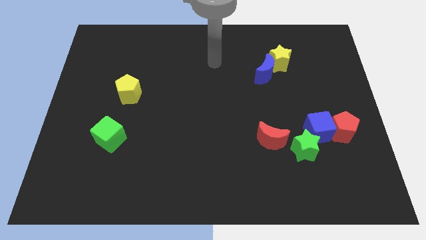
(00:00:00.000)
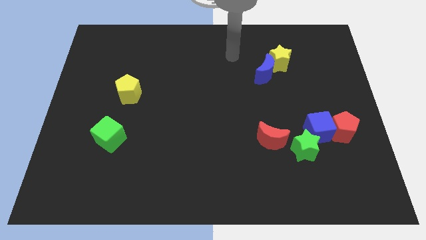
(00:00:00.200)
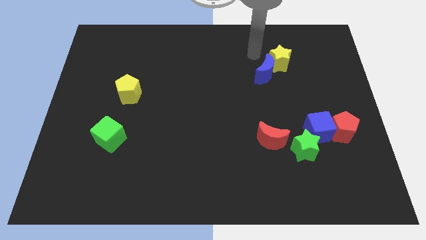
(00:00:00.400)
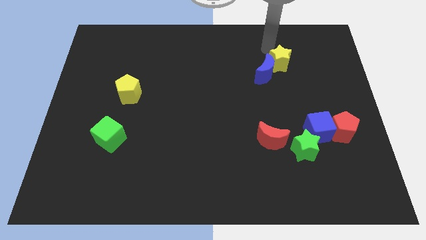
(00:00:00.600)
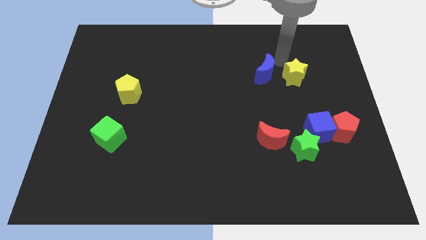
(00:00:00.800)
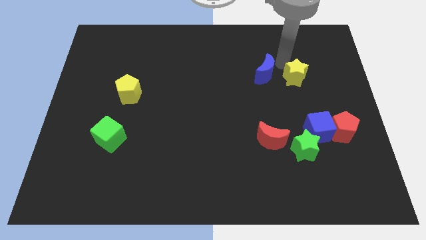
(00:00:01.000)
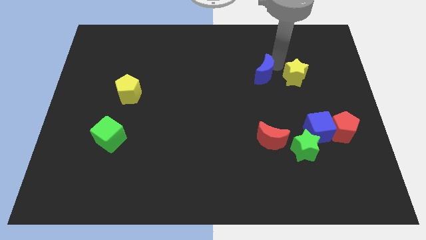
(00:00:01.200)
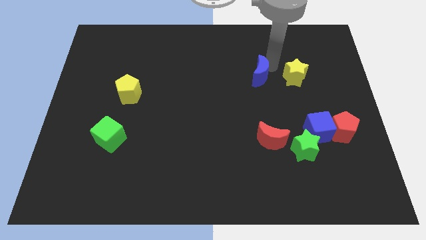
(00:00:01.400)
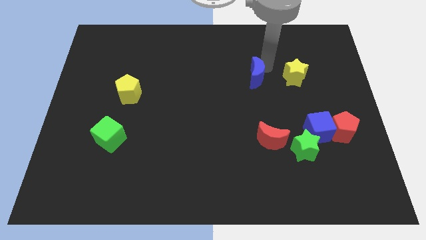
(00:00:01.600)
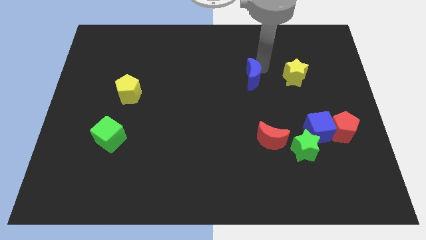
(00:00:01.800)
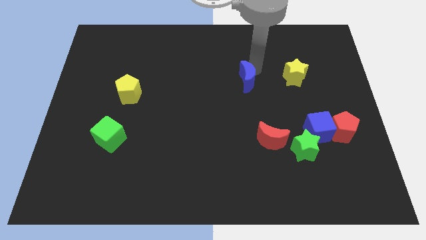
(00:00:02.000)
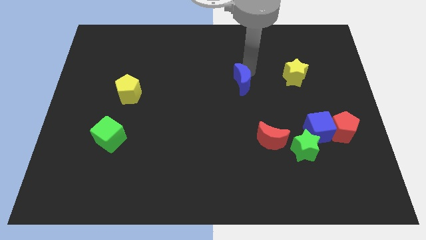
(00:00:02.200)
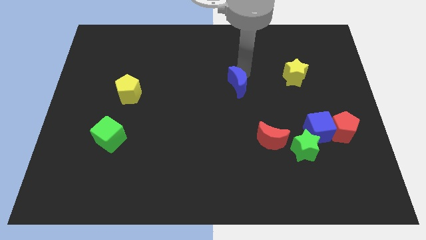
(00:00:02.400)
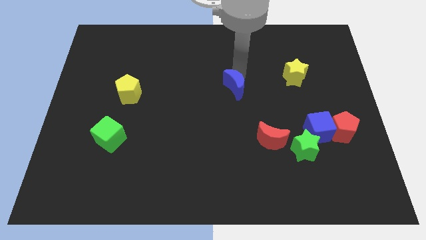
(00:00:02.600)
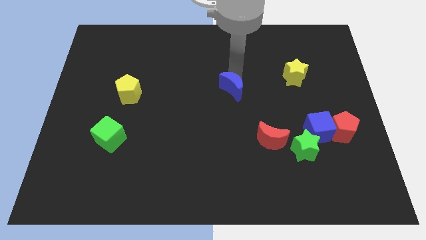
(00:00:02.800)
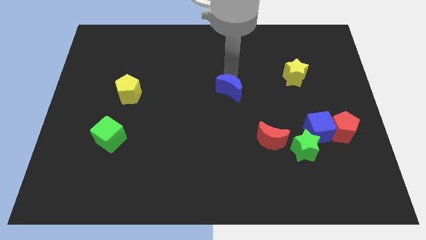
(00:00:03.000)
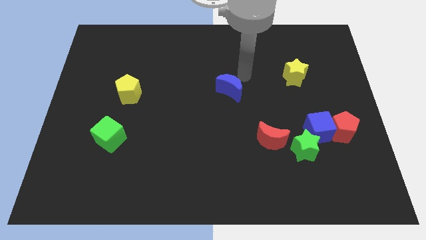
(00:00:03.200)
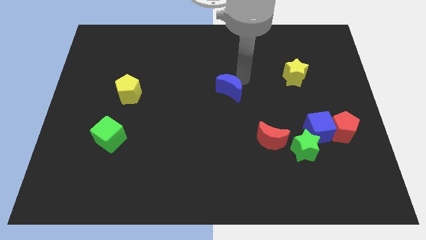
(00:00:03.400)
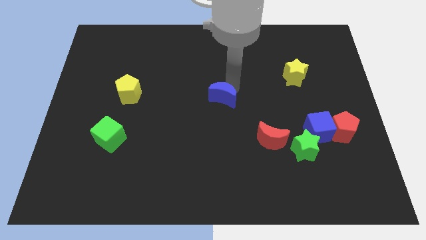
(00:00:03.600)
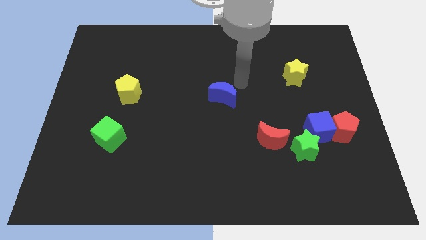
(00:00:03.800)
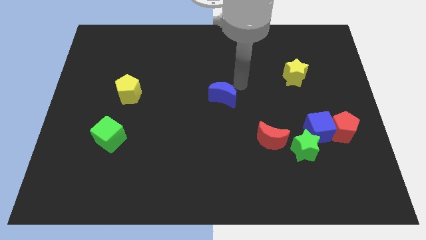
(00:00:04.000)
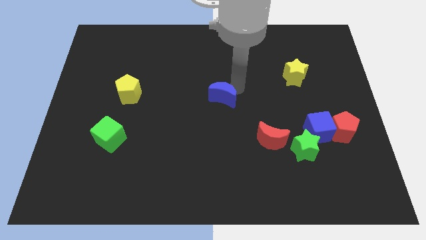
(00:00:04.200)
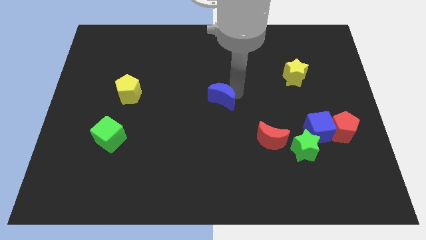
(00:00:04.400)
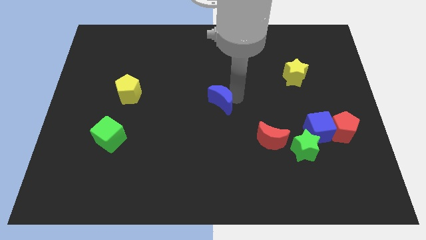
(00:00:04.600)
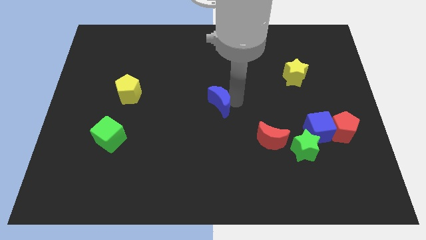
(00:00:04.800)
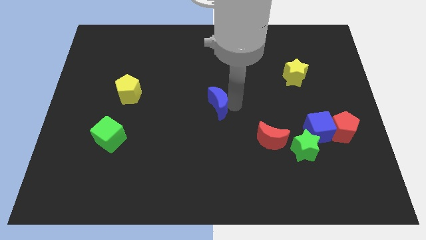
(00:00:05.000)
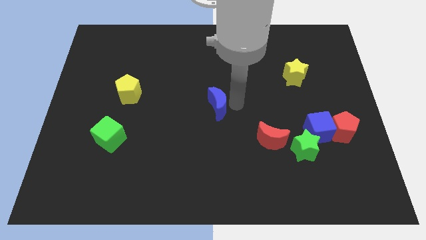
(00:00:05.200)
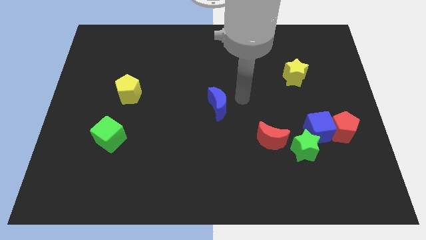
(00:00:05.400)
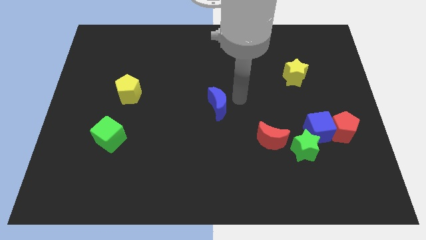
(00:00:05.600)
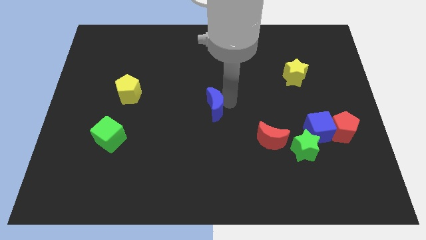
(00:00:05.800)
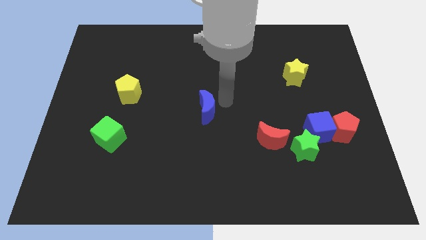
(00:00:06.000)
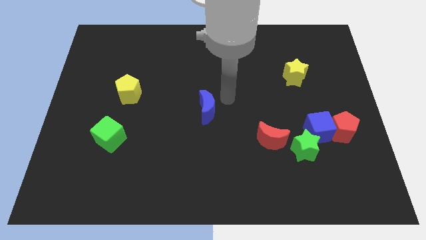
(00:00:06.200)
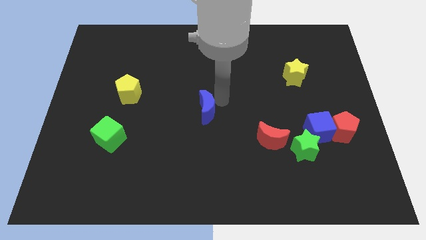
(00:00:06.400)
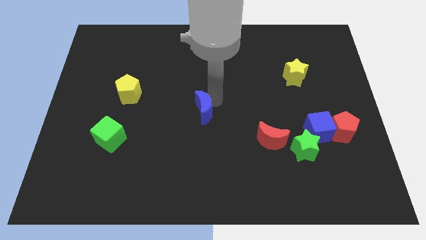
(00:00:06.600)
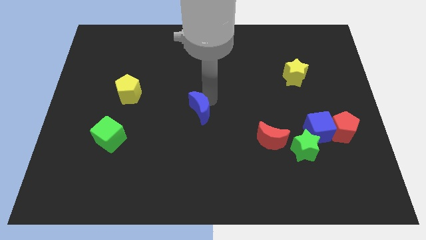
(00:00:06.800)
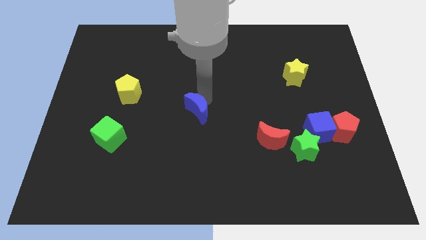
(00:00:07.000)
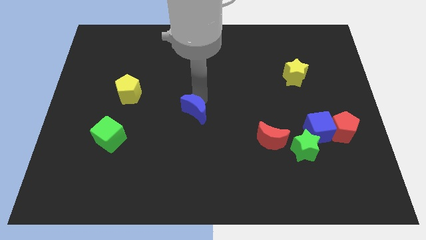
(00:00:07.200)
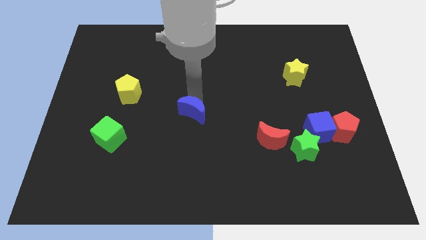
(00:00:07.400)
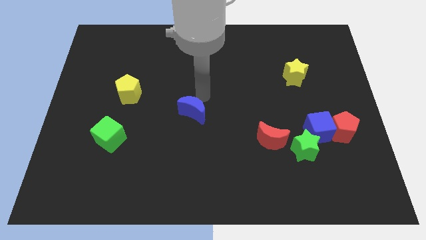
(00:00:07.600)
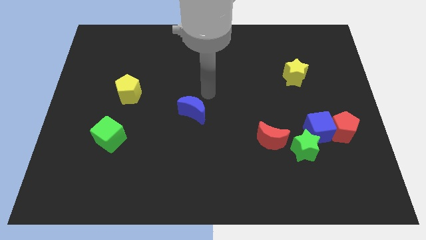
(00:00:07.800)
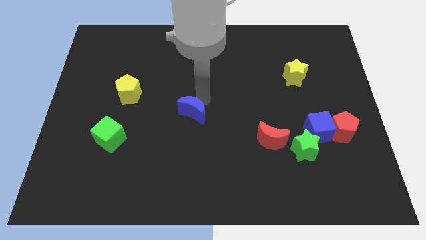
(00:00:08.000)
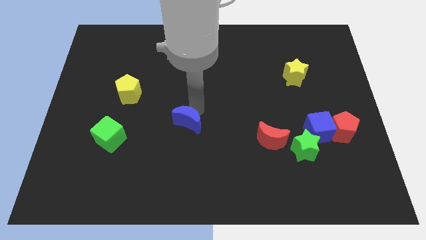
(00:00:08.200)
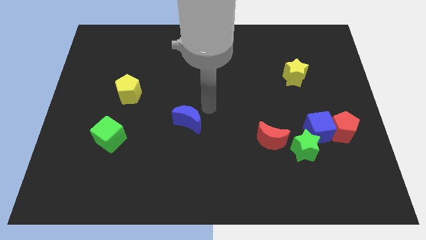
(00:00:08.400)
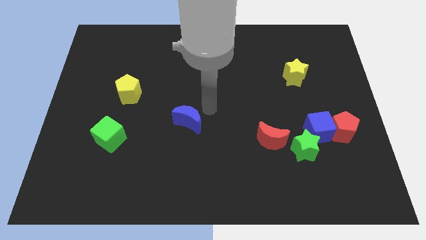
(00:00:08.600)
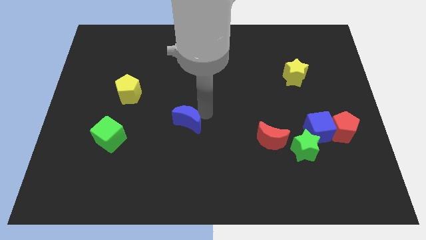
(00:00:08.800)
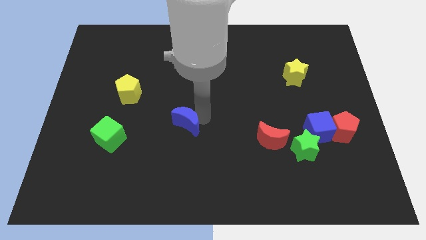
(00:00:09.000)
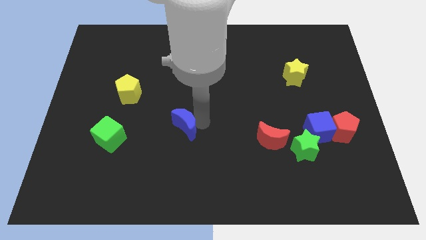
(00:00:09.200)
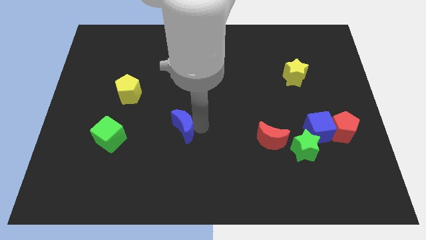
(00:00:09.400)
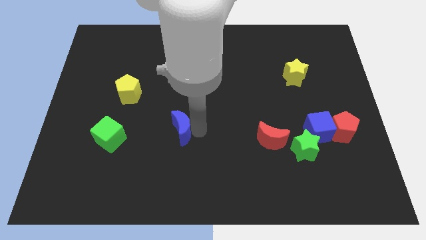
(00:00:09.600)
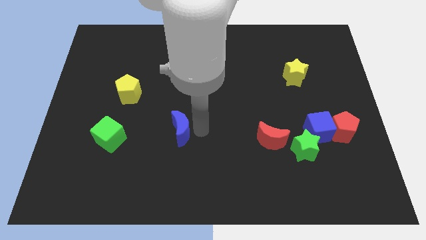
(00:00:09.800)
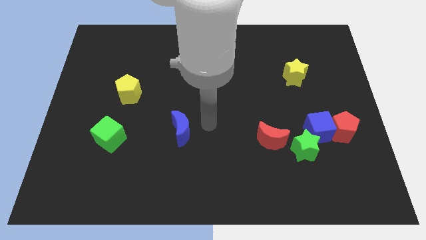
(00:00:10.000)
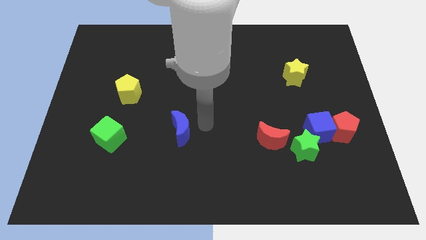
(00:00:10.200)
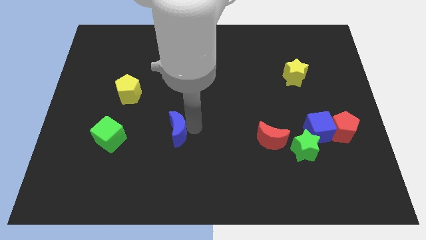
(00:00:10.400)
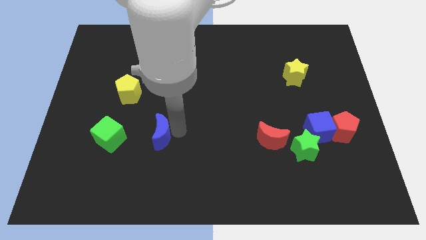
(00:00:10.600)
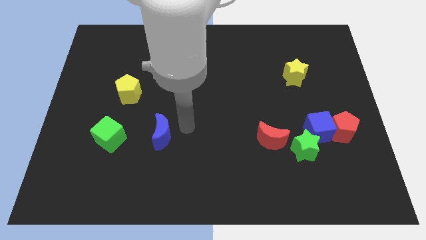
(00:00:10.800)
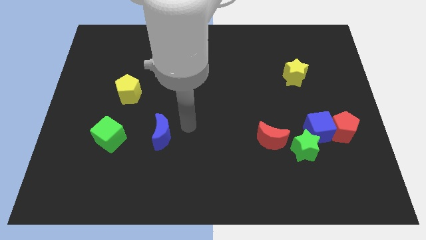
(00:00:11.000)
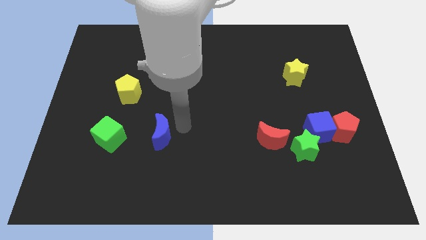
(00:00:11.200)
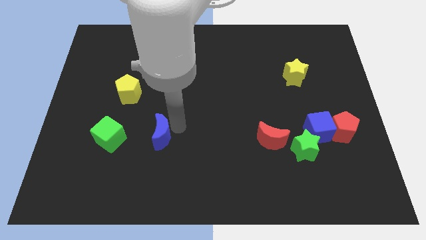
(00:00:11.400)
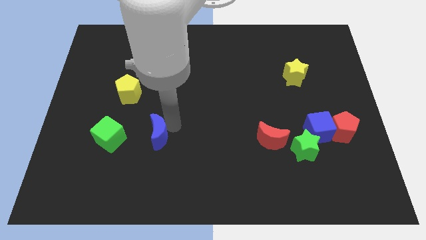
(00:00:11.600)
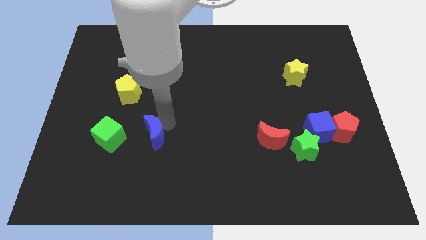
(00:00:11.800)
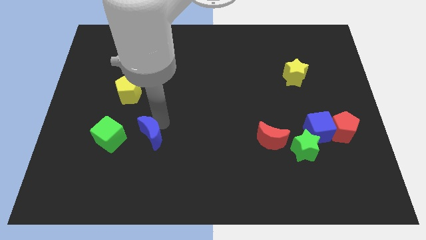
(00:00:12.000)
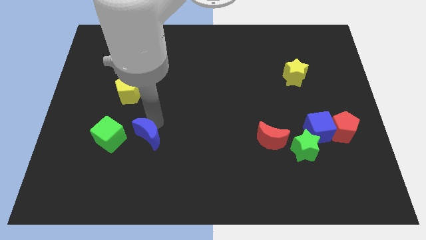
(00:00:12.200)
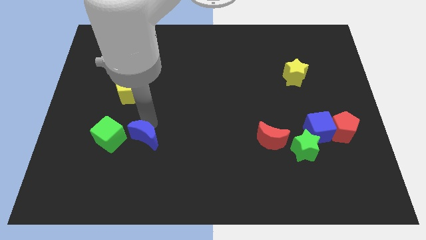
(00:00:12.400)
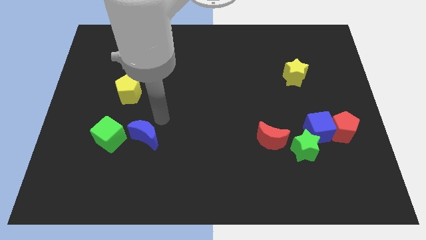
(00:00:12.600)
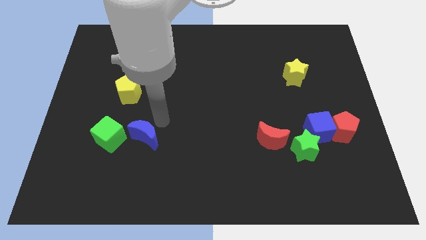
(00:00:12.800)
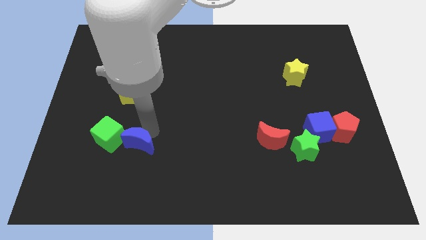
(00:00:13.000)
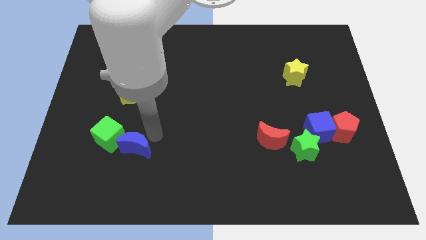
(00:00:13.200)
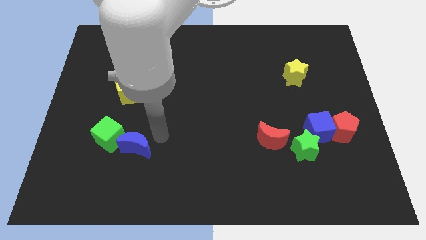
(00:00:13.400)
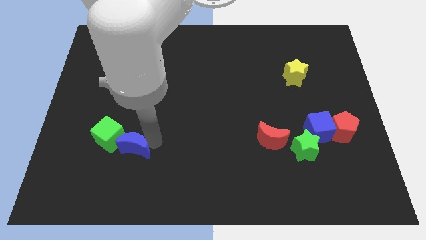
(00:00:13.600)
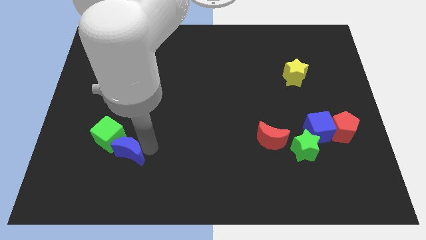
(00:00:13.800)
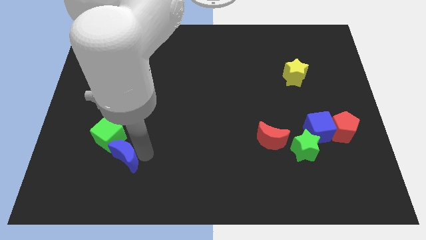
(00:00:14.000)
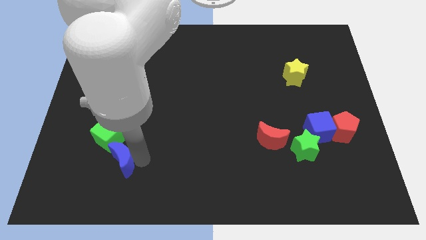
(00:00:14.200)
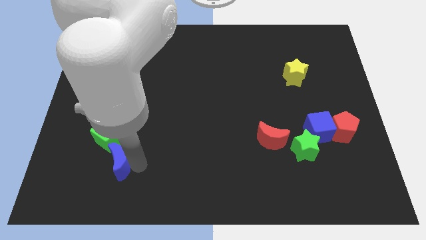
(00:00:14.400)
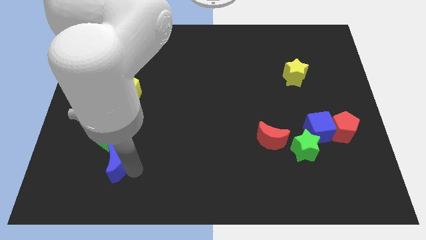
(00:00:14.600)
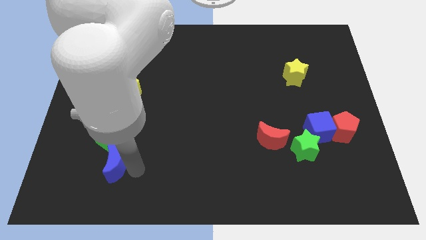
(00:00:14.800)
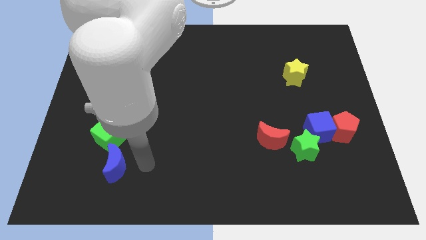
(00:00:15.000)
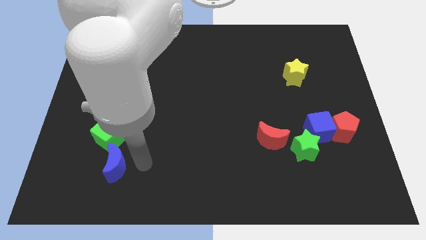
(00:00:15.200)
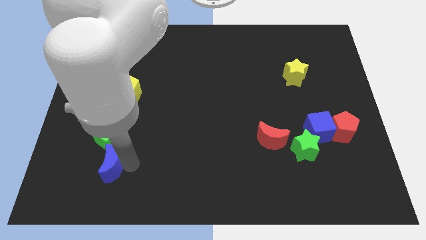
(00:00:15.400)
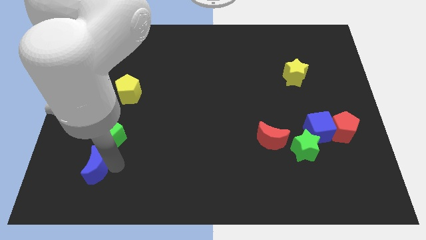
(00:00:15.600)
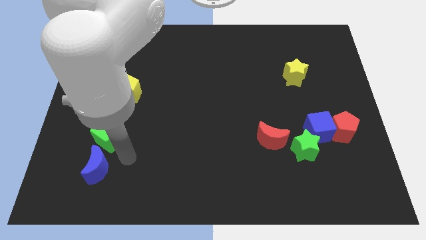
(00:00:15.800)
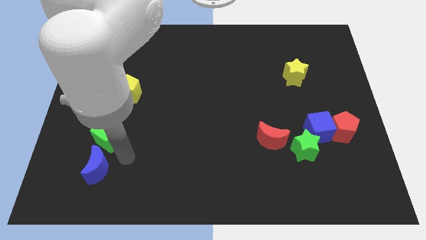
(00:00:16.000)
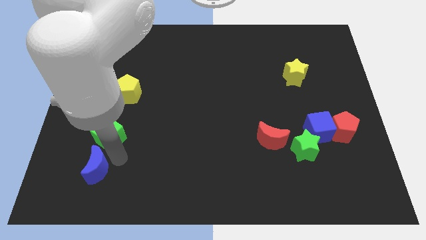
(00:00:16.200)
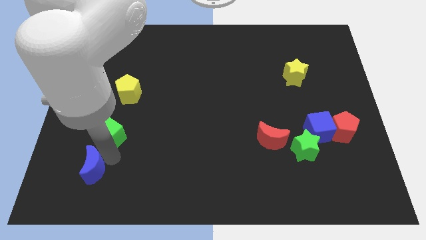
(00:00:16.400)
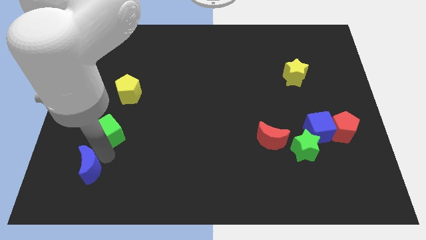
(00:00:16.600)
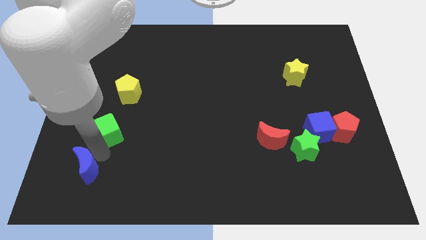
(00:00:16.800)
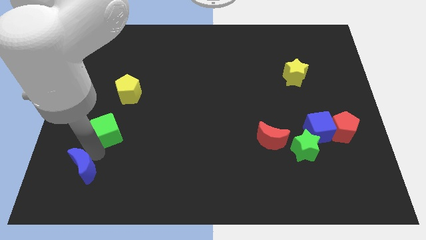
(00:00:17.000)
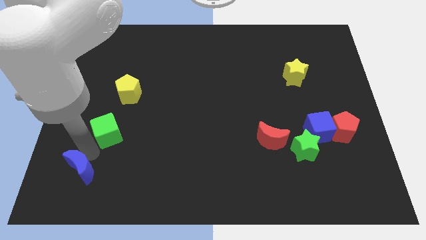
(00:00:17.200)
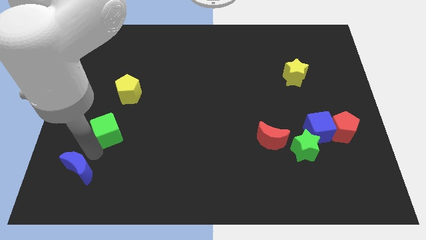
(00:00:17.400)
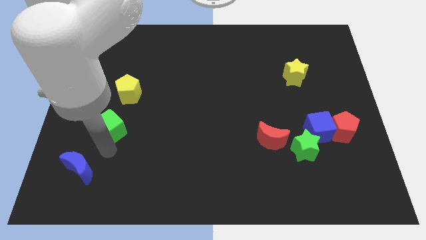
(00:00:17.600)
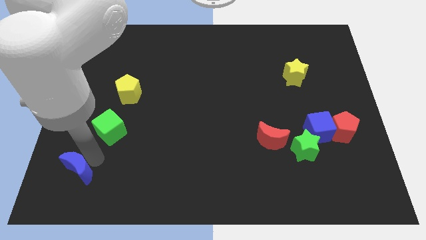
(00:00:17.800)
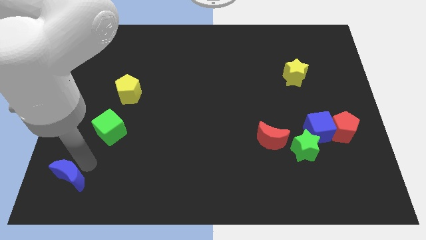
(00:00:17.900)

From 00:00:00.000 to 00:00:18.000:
put the blue moon to the lower left corner
